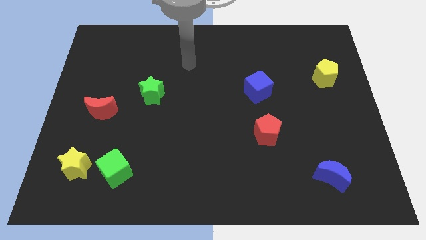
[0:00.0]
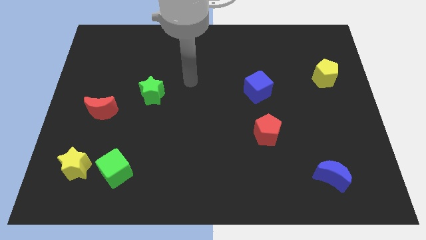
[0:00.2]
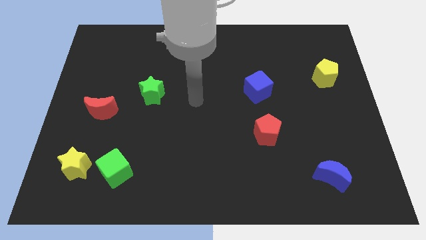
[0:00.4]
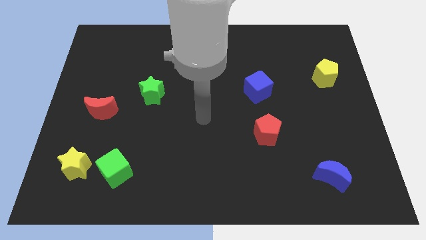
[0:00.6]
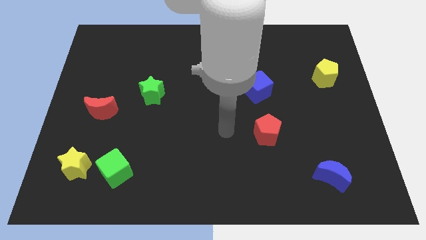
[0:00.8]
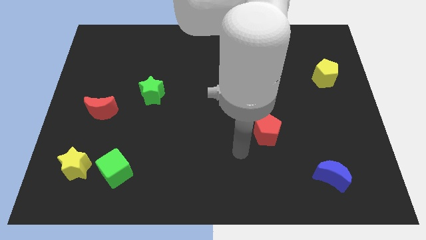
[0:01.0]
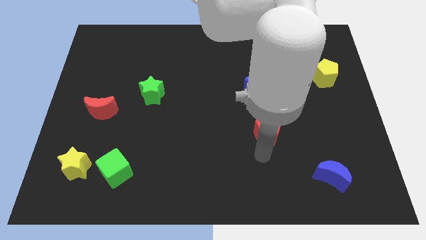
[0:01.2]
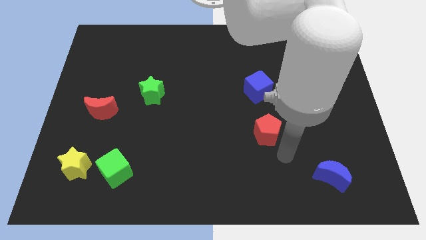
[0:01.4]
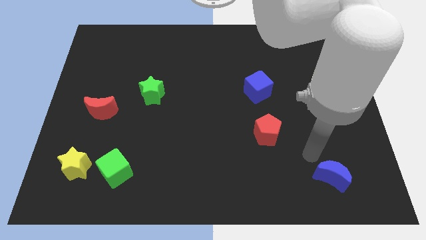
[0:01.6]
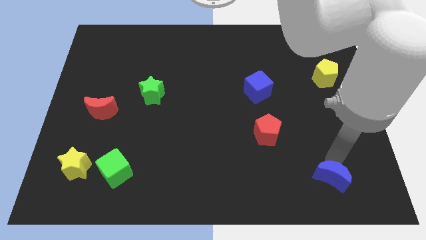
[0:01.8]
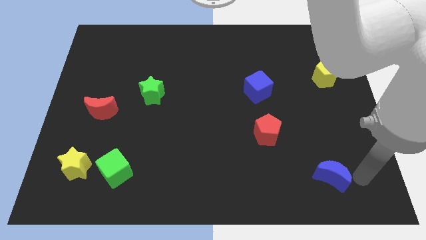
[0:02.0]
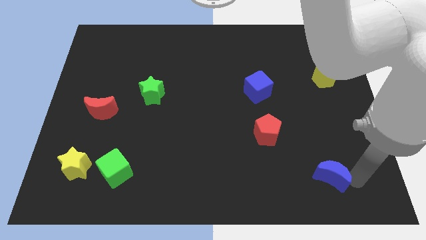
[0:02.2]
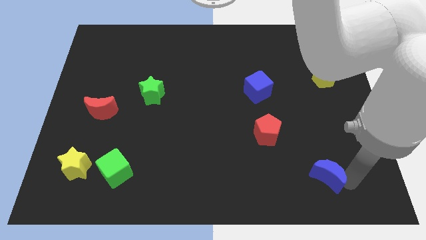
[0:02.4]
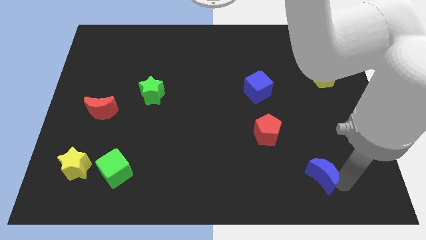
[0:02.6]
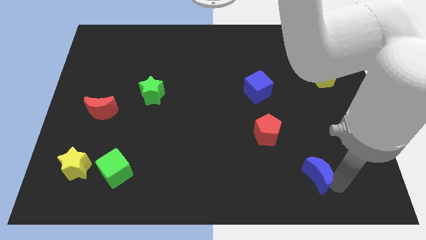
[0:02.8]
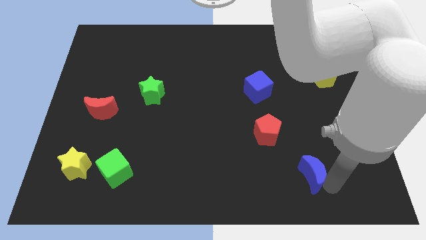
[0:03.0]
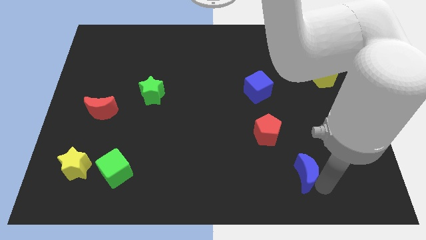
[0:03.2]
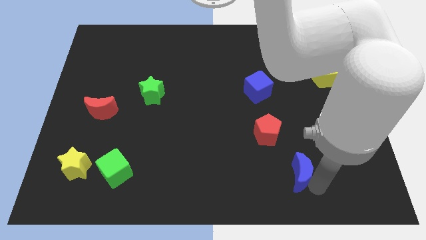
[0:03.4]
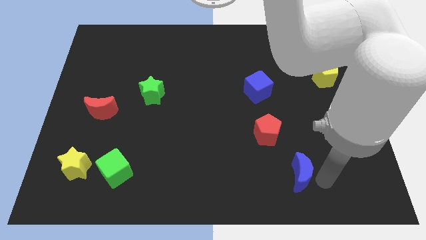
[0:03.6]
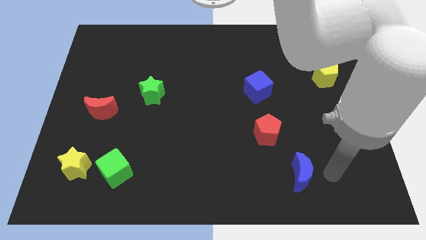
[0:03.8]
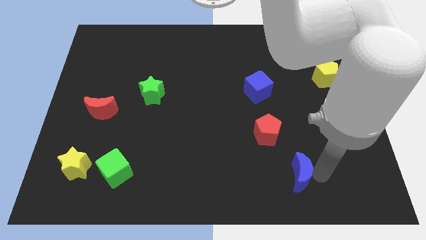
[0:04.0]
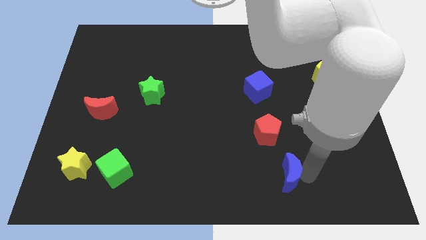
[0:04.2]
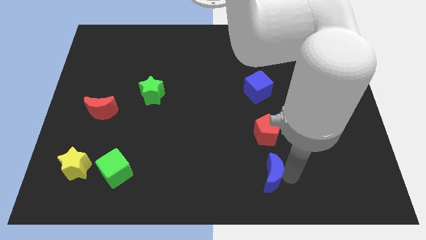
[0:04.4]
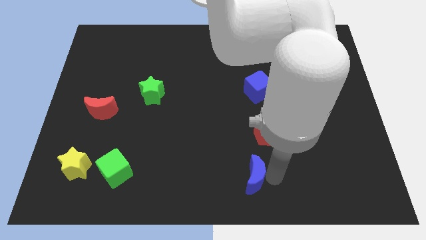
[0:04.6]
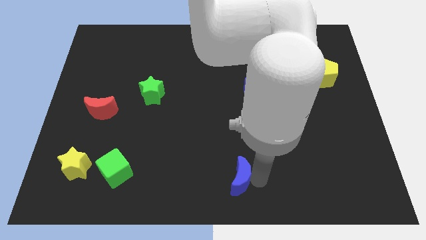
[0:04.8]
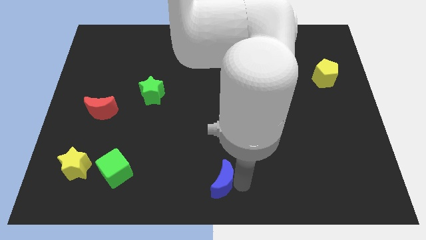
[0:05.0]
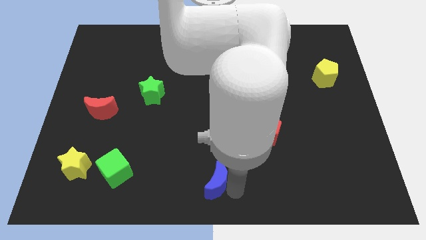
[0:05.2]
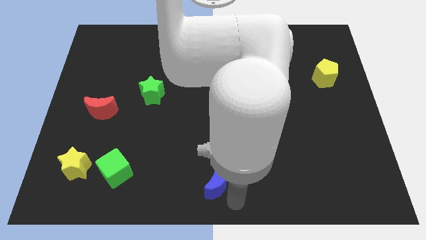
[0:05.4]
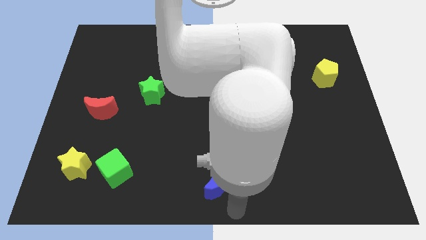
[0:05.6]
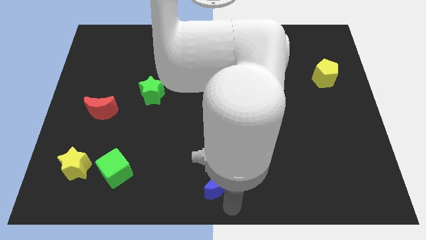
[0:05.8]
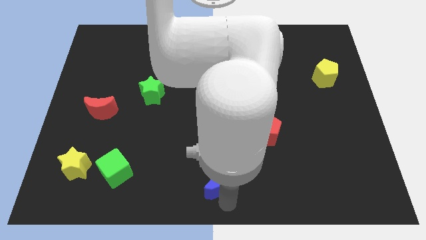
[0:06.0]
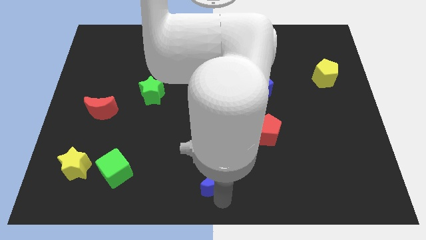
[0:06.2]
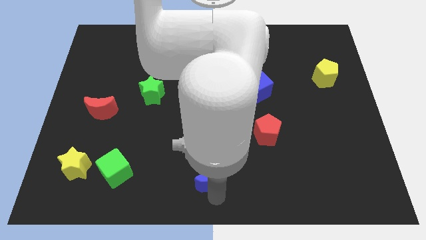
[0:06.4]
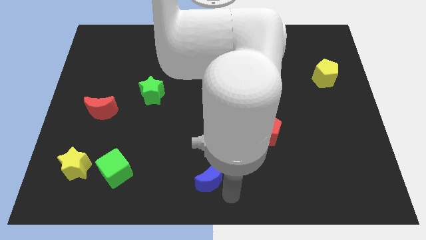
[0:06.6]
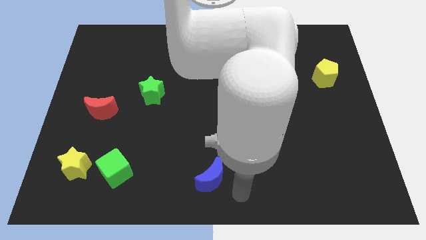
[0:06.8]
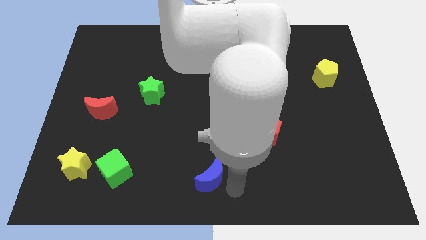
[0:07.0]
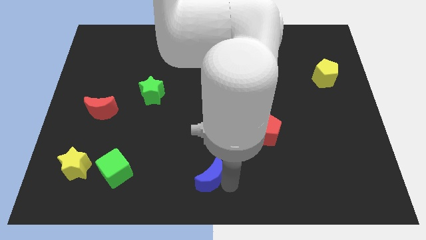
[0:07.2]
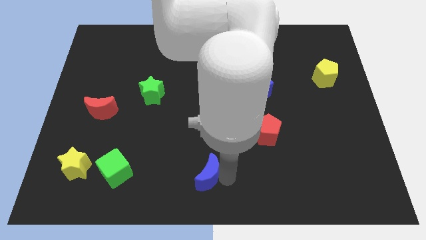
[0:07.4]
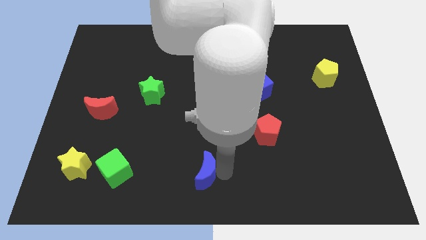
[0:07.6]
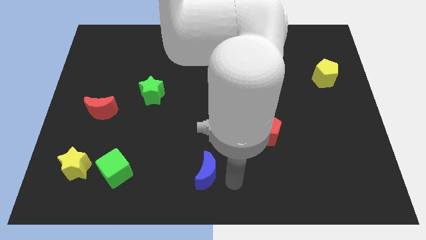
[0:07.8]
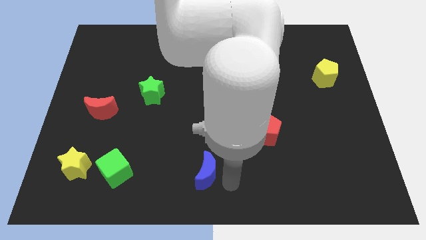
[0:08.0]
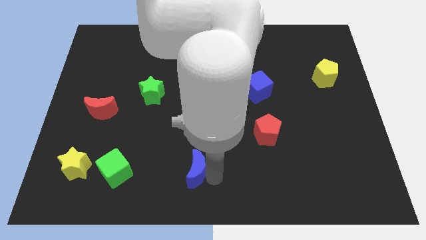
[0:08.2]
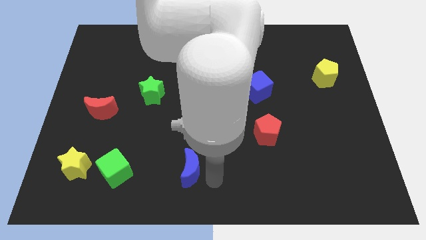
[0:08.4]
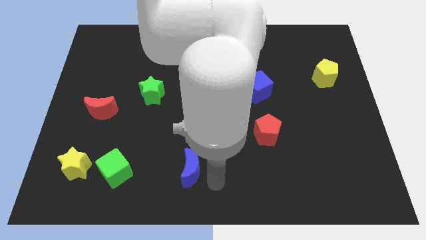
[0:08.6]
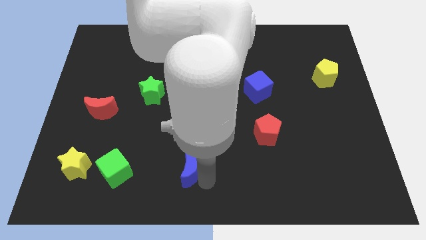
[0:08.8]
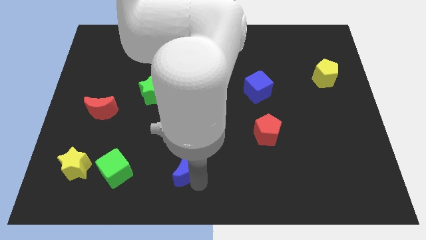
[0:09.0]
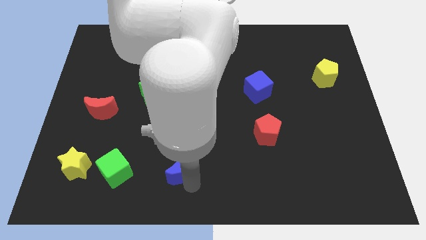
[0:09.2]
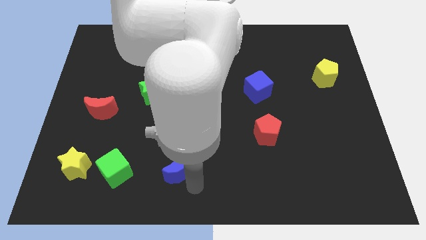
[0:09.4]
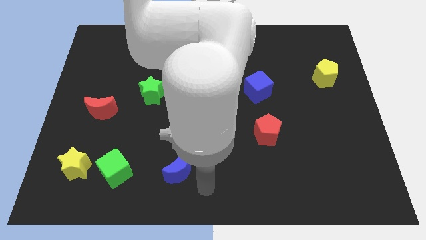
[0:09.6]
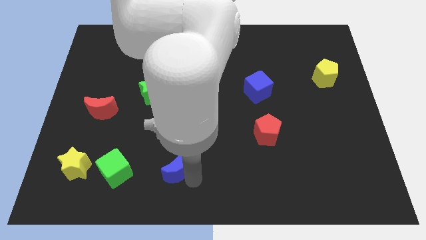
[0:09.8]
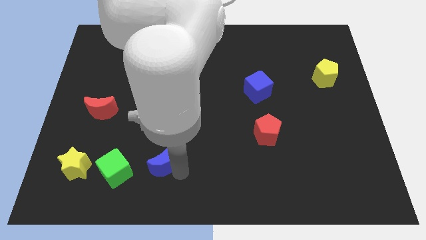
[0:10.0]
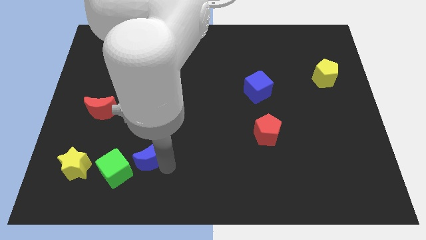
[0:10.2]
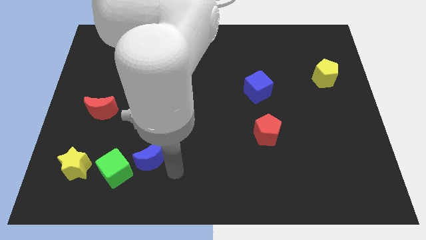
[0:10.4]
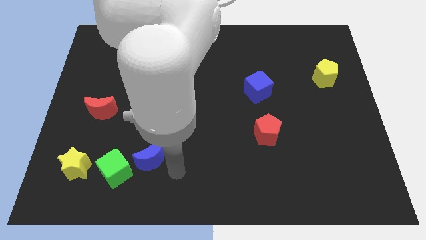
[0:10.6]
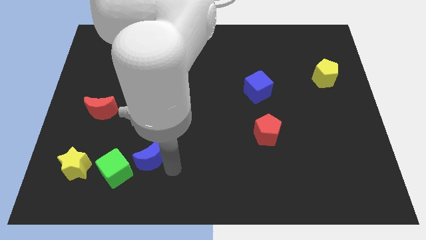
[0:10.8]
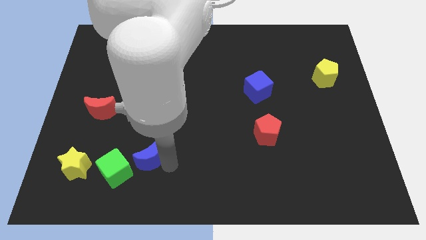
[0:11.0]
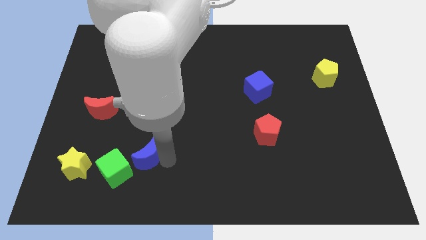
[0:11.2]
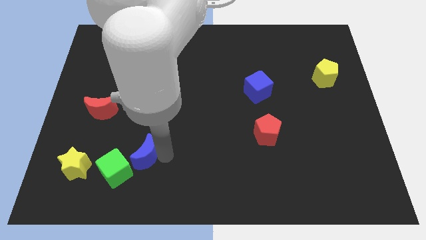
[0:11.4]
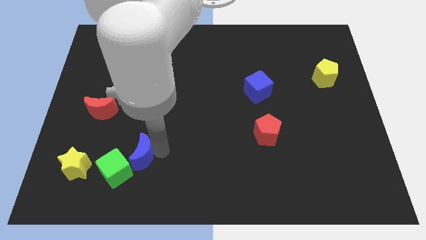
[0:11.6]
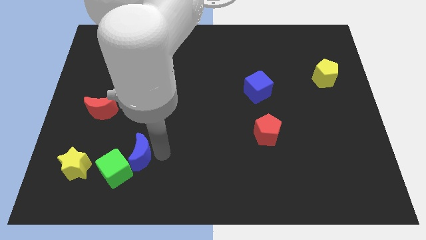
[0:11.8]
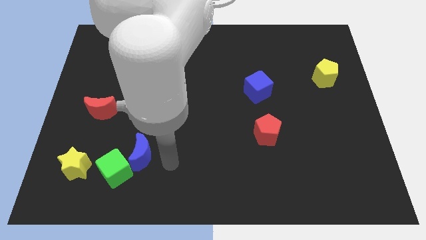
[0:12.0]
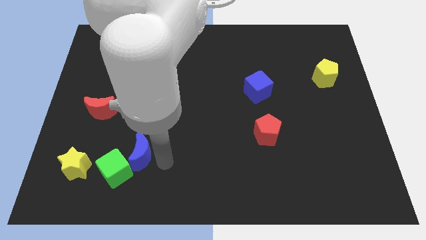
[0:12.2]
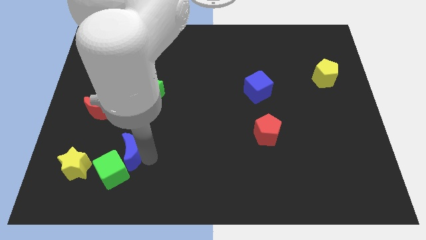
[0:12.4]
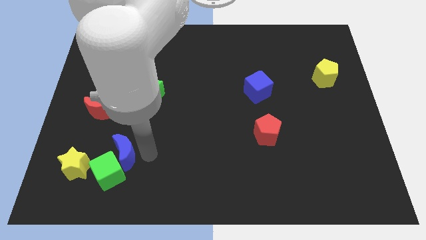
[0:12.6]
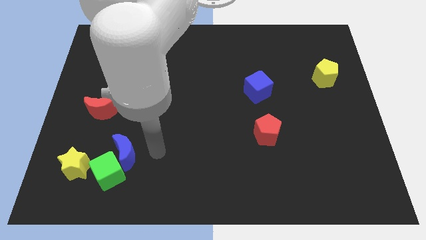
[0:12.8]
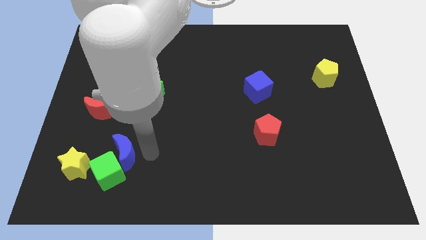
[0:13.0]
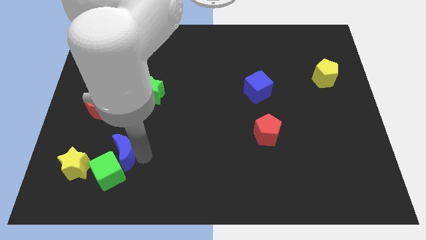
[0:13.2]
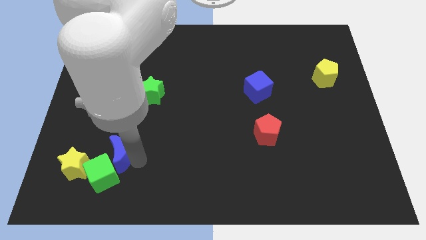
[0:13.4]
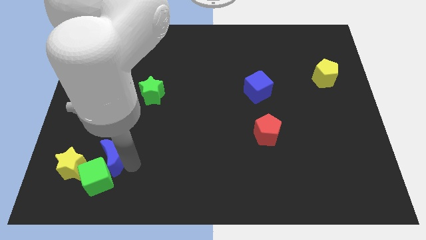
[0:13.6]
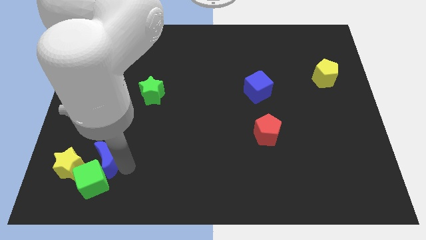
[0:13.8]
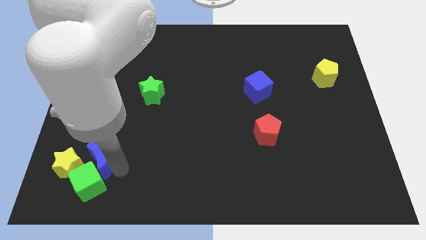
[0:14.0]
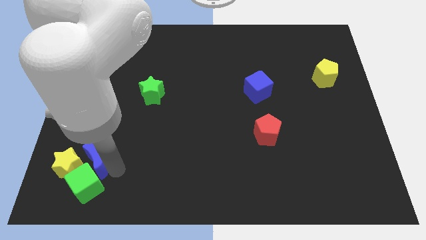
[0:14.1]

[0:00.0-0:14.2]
move the blue moon to the yellow star

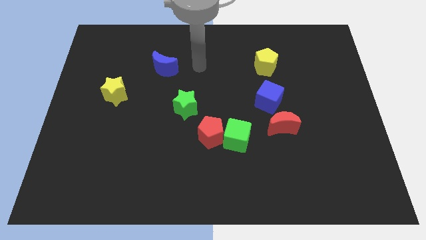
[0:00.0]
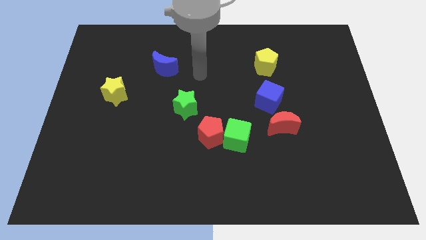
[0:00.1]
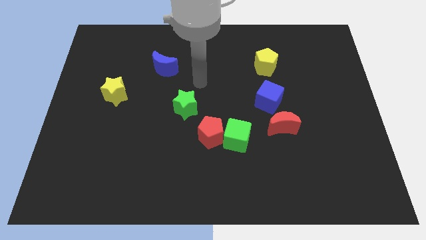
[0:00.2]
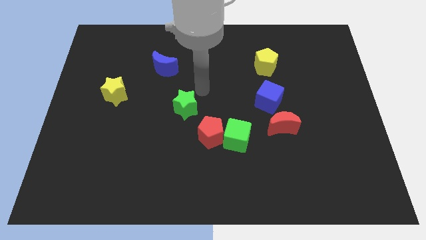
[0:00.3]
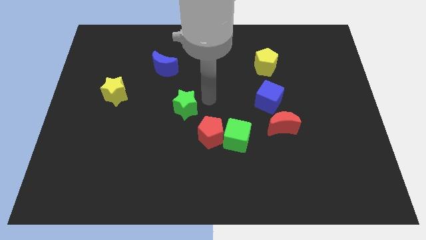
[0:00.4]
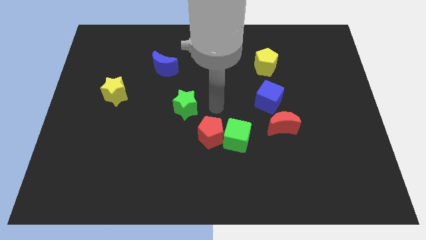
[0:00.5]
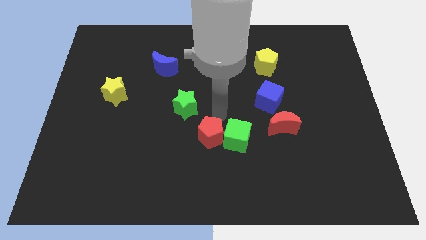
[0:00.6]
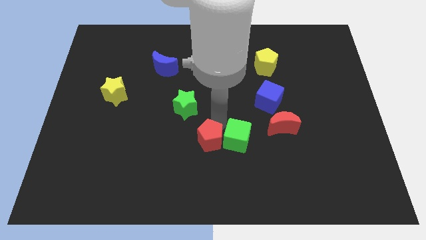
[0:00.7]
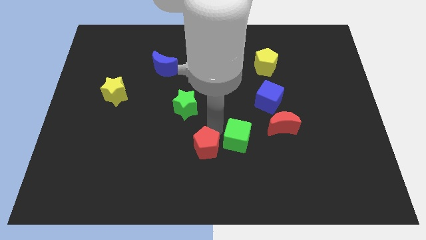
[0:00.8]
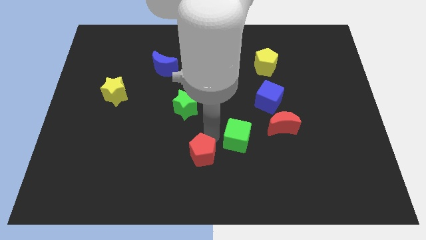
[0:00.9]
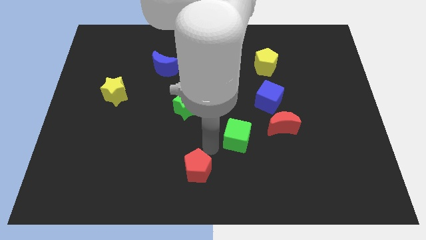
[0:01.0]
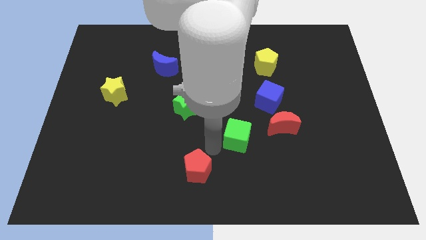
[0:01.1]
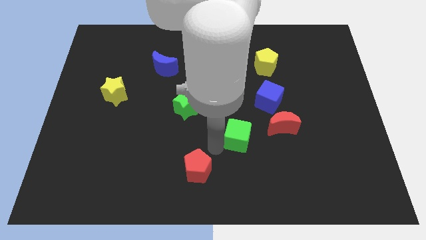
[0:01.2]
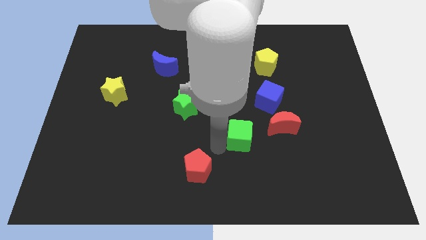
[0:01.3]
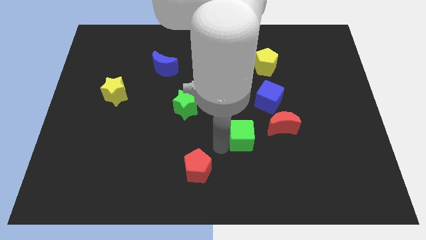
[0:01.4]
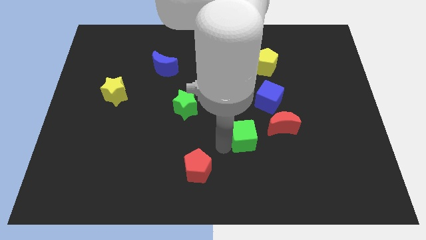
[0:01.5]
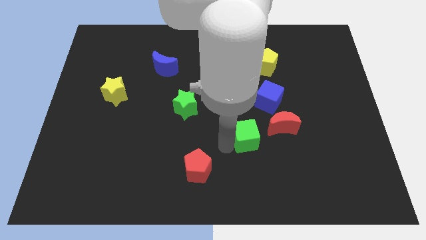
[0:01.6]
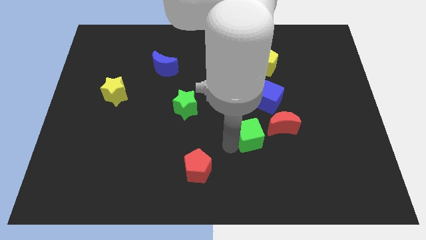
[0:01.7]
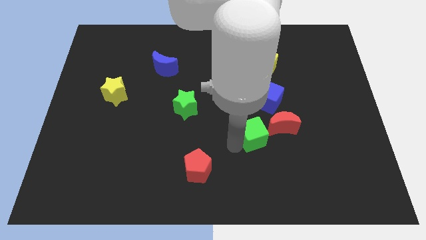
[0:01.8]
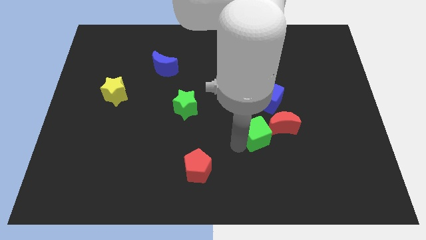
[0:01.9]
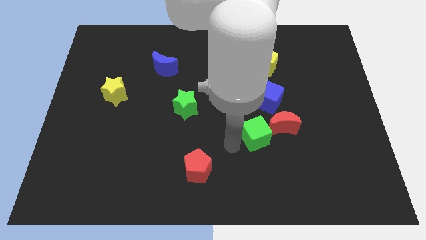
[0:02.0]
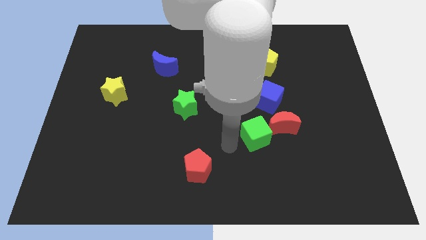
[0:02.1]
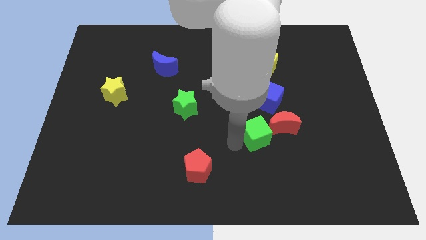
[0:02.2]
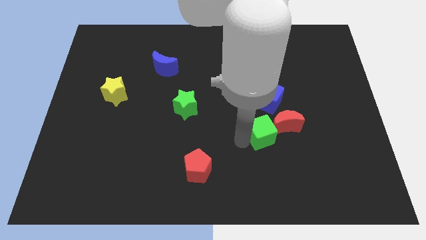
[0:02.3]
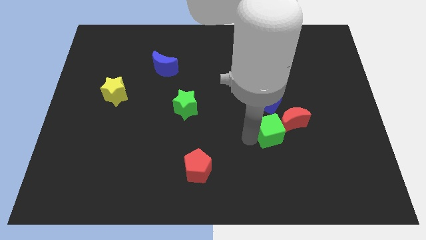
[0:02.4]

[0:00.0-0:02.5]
put the green cube next to the red moon
